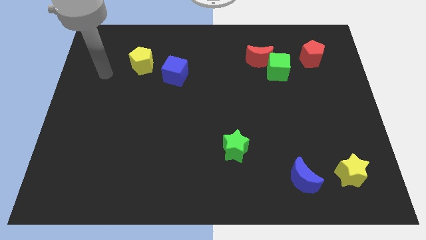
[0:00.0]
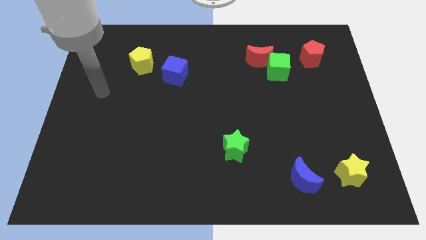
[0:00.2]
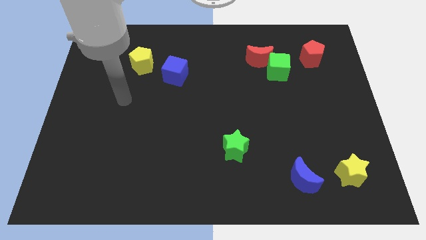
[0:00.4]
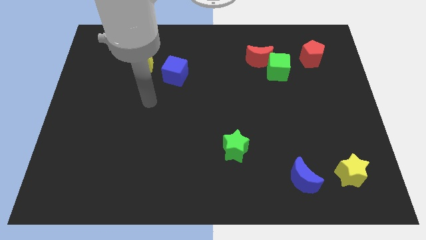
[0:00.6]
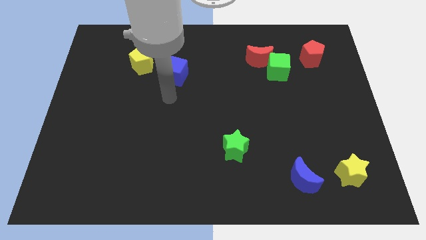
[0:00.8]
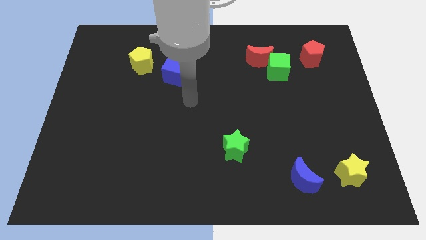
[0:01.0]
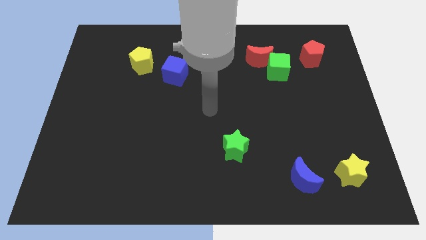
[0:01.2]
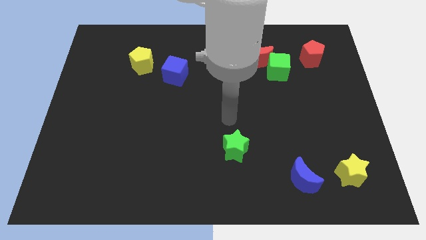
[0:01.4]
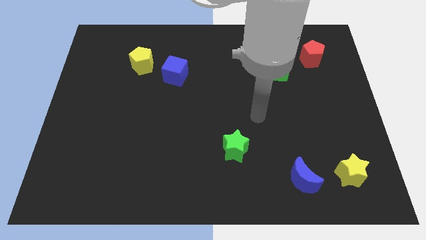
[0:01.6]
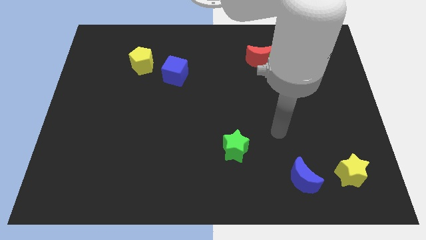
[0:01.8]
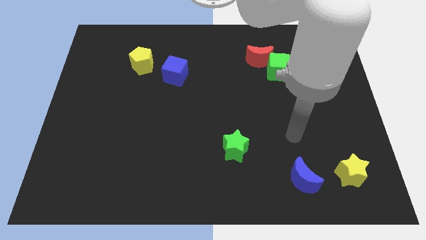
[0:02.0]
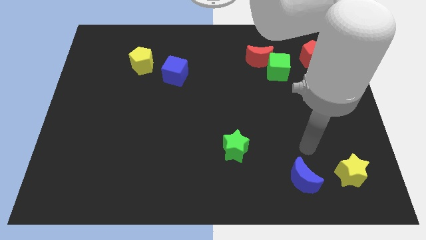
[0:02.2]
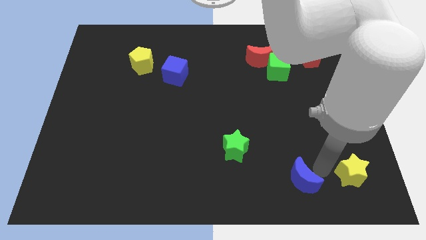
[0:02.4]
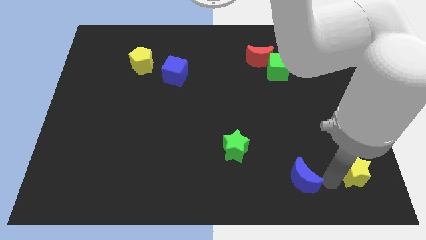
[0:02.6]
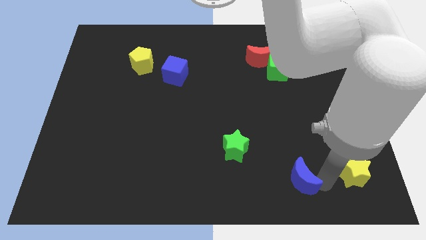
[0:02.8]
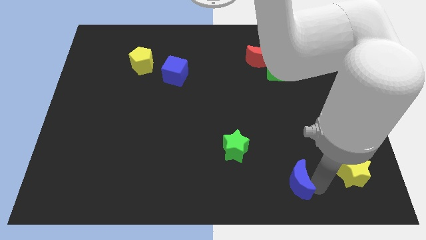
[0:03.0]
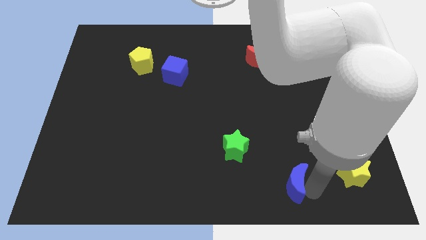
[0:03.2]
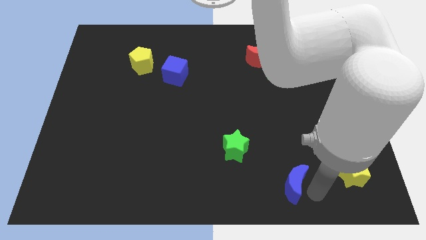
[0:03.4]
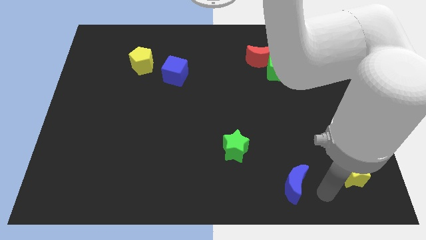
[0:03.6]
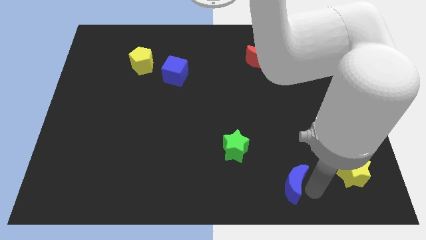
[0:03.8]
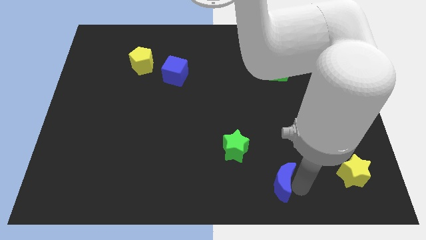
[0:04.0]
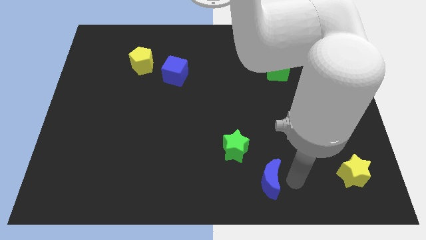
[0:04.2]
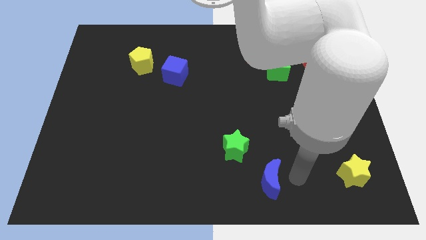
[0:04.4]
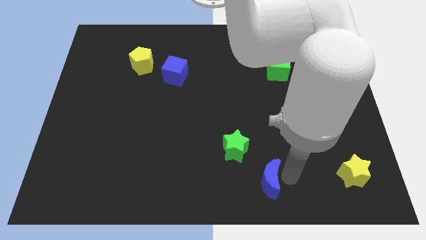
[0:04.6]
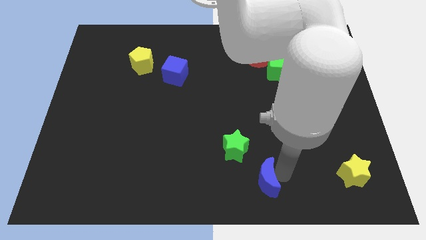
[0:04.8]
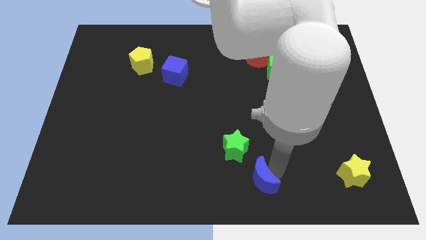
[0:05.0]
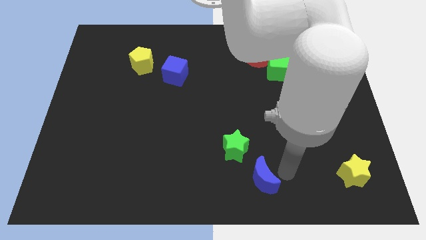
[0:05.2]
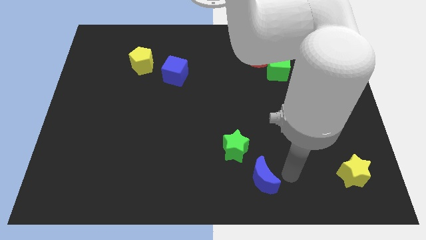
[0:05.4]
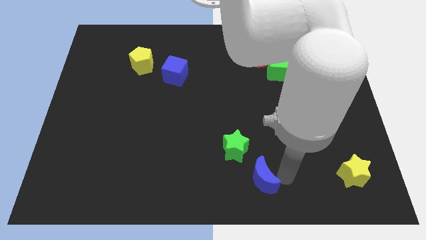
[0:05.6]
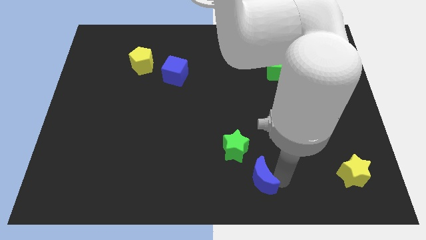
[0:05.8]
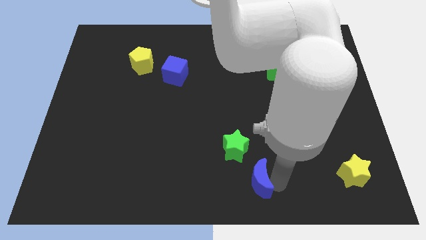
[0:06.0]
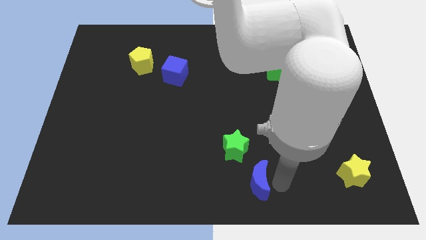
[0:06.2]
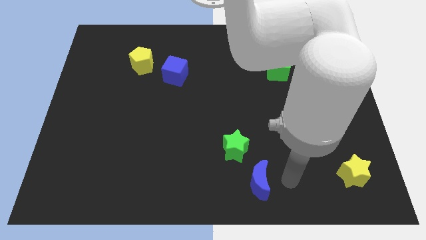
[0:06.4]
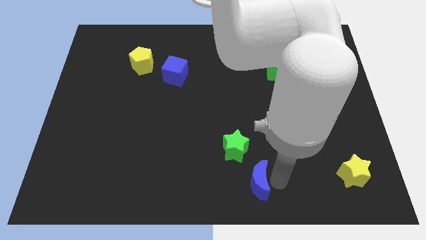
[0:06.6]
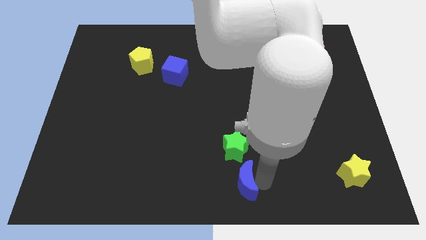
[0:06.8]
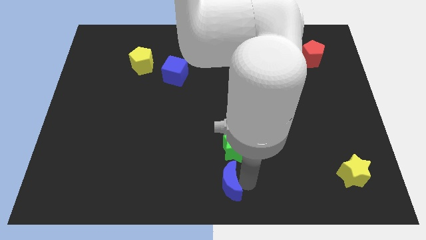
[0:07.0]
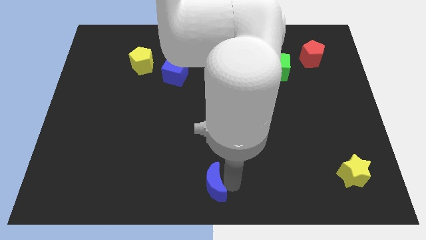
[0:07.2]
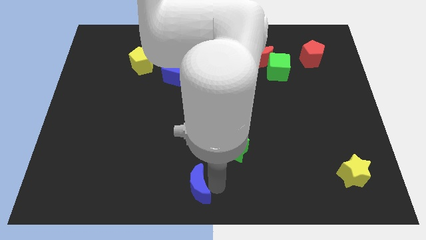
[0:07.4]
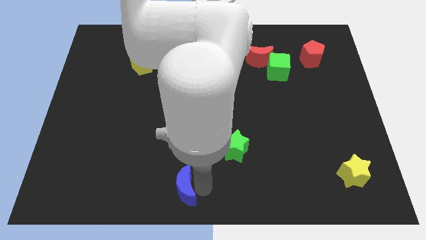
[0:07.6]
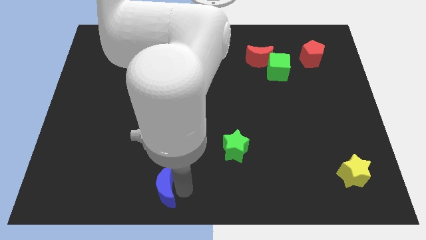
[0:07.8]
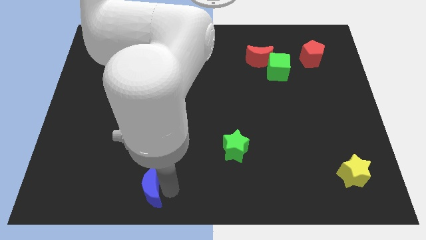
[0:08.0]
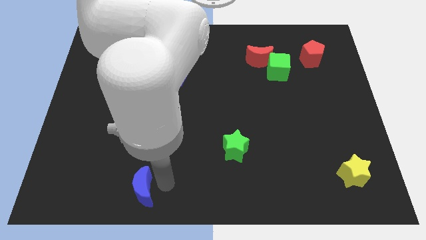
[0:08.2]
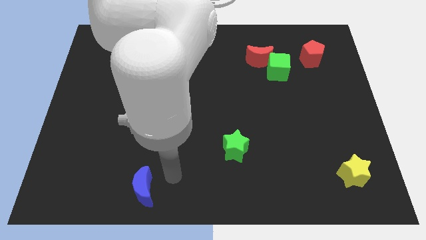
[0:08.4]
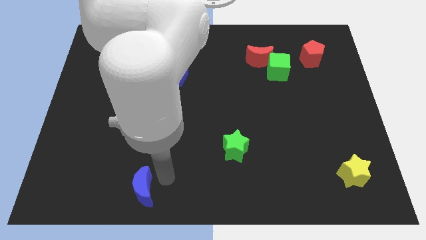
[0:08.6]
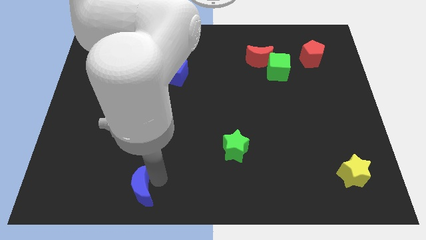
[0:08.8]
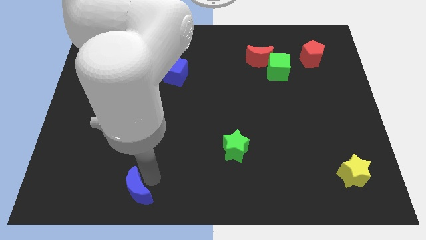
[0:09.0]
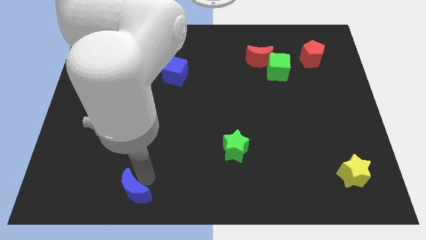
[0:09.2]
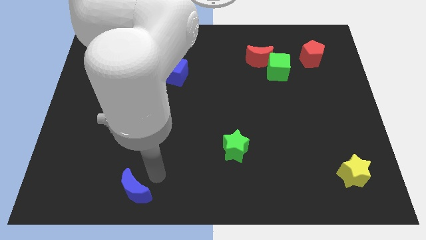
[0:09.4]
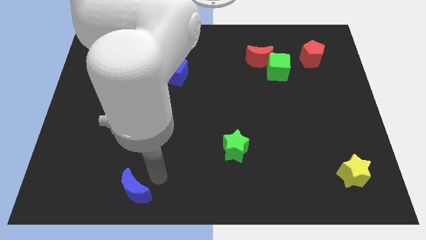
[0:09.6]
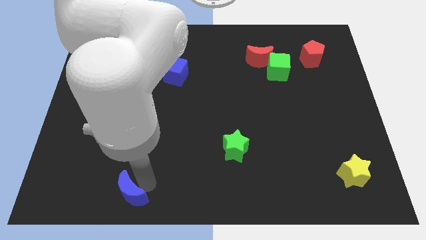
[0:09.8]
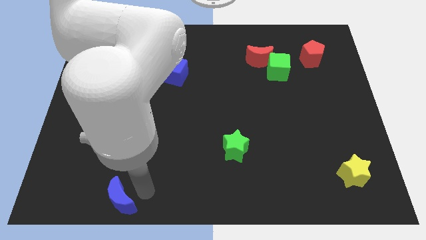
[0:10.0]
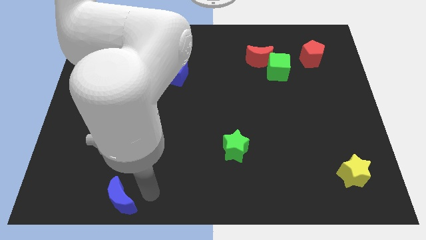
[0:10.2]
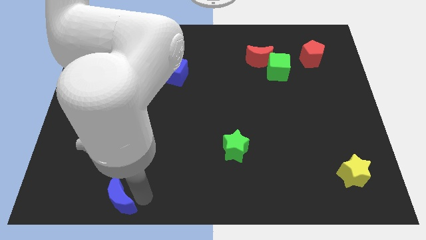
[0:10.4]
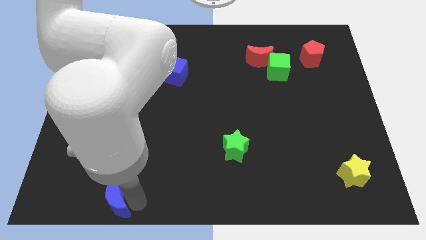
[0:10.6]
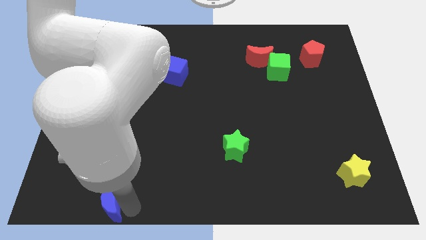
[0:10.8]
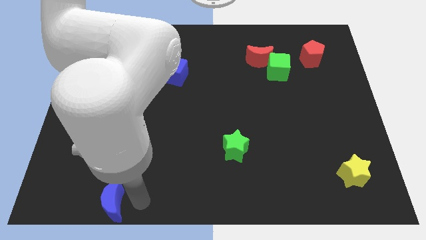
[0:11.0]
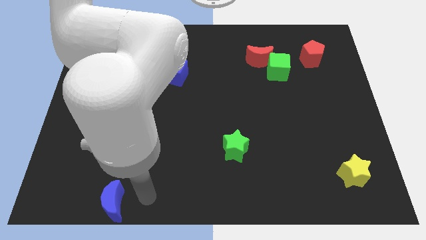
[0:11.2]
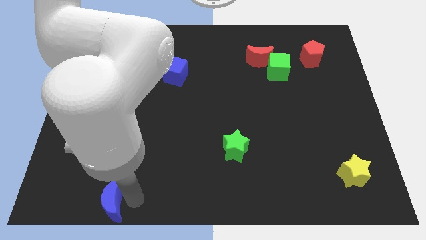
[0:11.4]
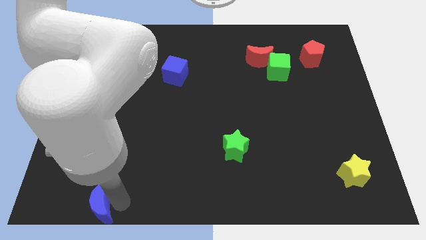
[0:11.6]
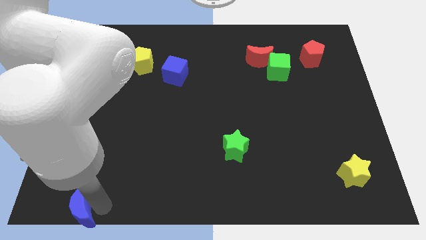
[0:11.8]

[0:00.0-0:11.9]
move the blue moon to the bottom left of the board
